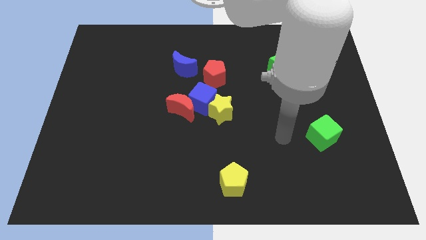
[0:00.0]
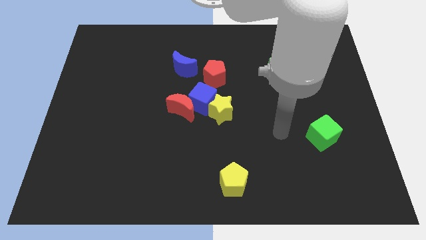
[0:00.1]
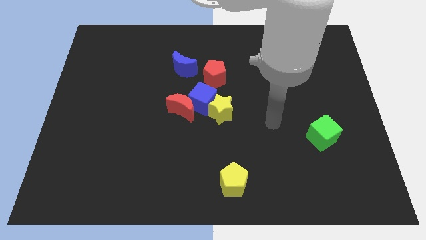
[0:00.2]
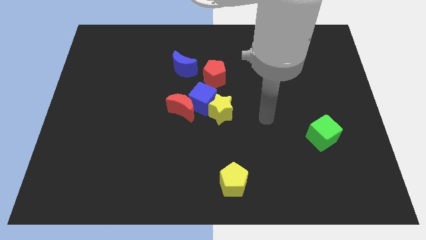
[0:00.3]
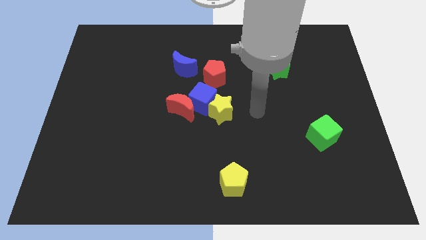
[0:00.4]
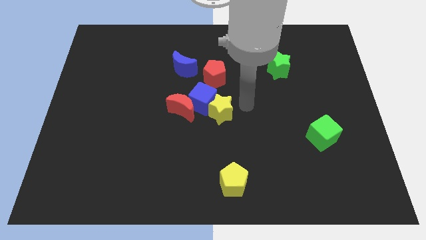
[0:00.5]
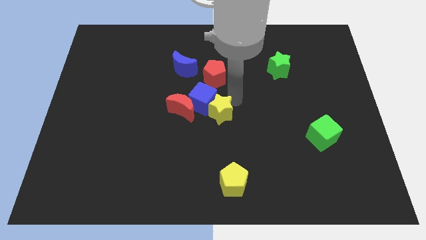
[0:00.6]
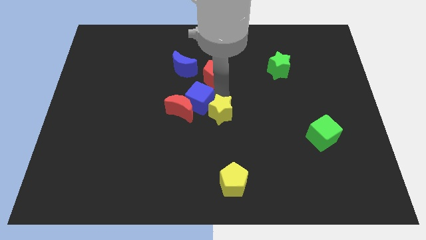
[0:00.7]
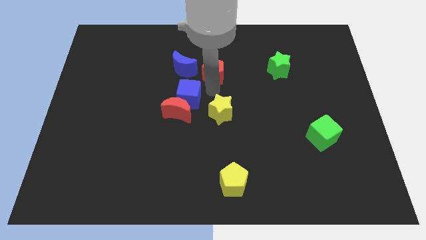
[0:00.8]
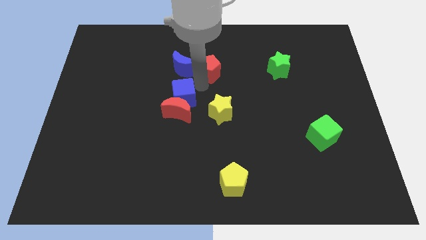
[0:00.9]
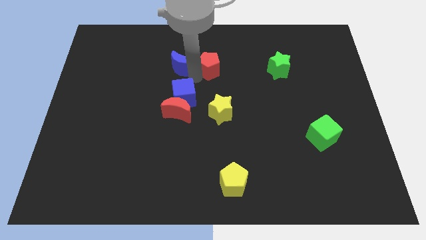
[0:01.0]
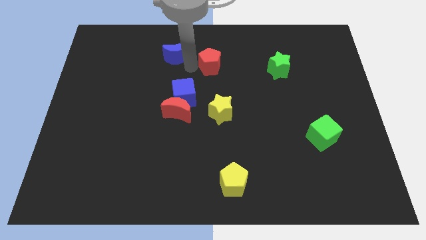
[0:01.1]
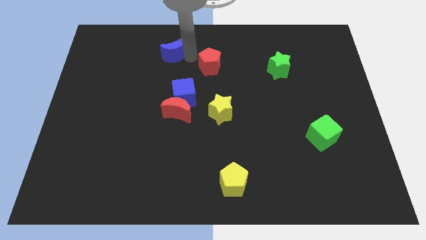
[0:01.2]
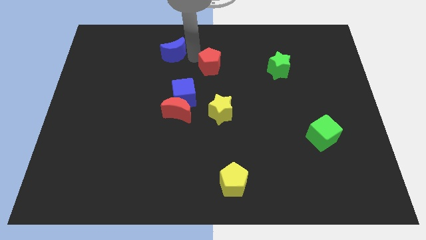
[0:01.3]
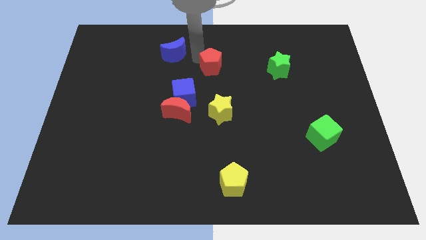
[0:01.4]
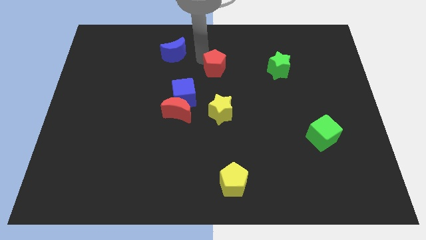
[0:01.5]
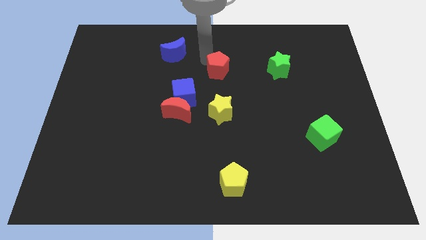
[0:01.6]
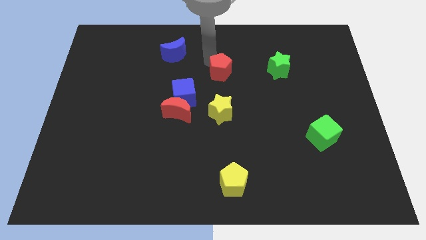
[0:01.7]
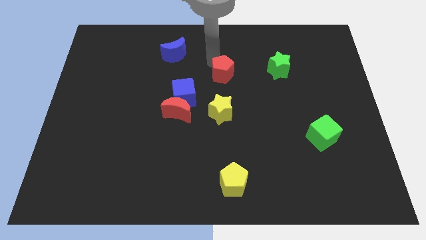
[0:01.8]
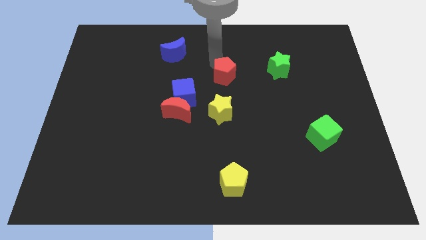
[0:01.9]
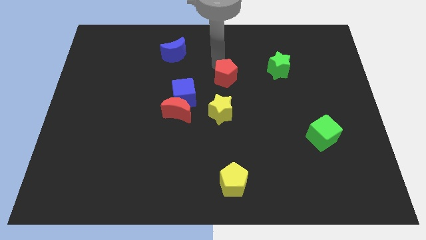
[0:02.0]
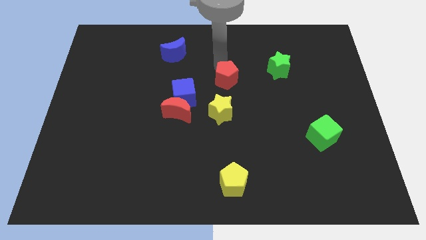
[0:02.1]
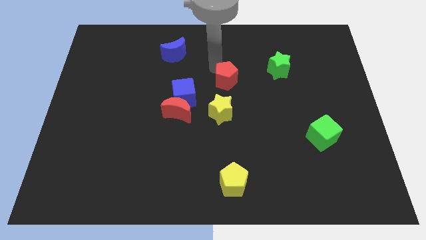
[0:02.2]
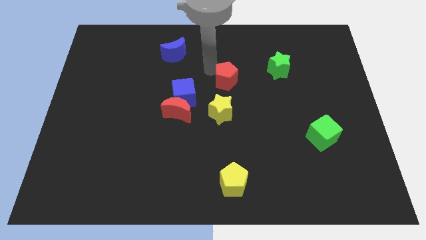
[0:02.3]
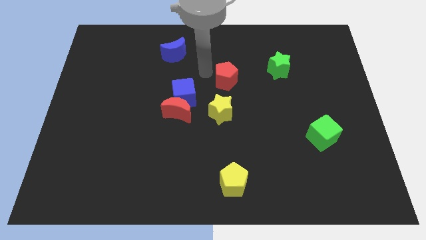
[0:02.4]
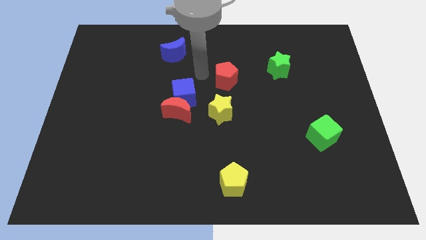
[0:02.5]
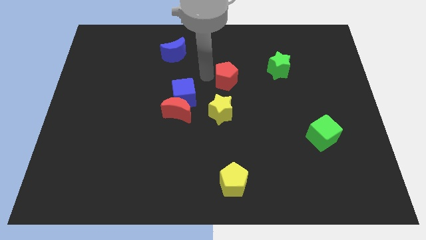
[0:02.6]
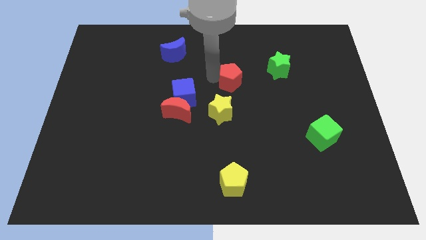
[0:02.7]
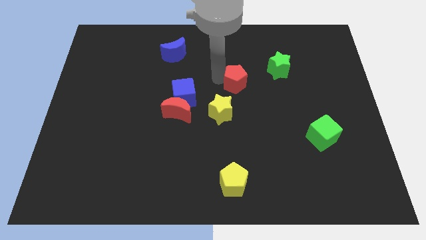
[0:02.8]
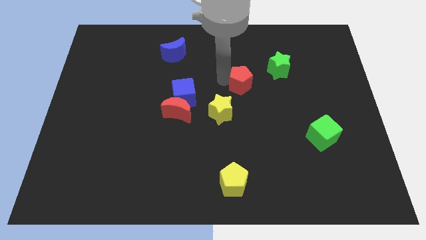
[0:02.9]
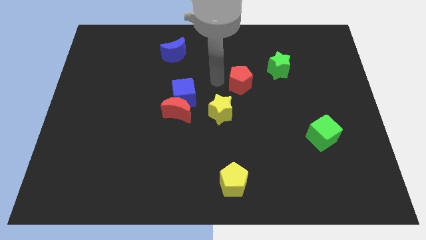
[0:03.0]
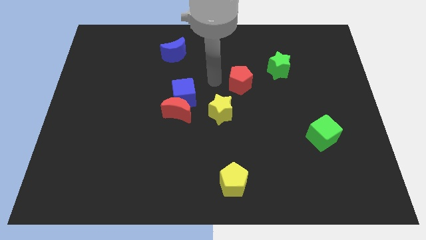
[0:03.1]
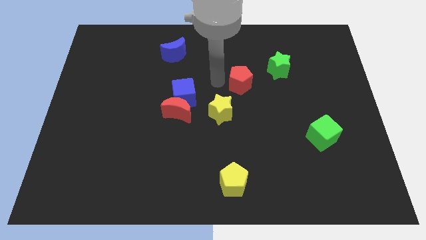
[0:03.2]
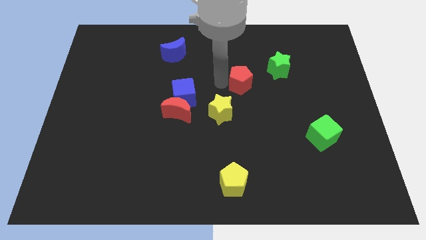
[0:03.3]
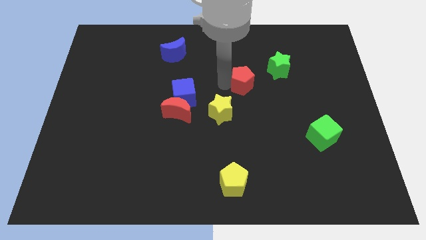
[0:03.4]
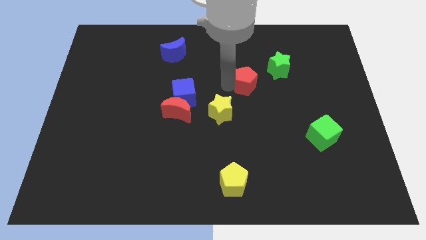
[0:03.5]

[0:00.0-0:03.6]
slightly move the red pentagon to the right

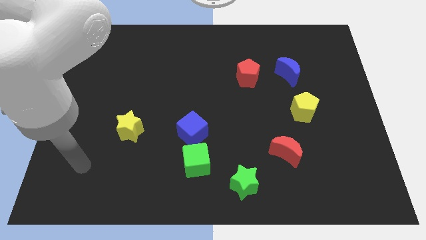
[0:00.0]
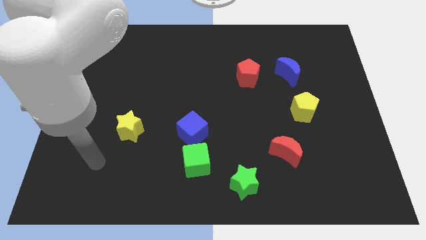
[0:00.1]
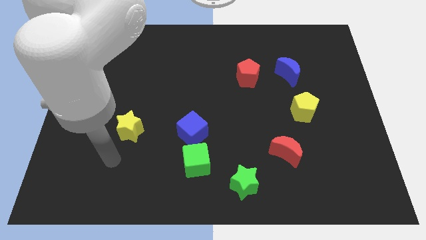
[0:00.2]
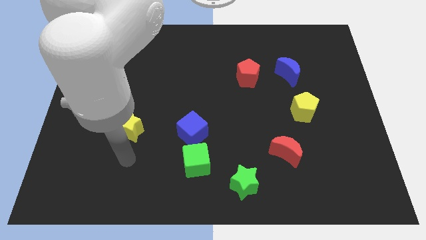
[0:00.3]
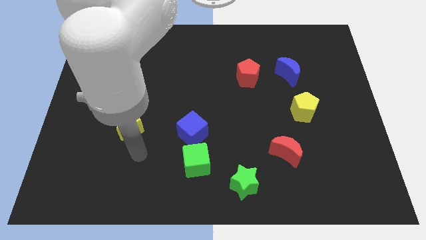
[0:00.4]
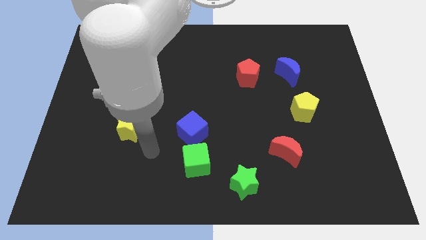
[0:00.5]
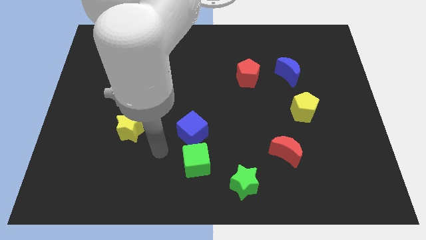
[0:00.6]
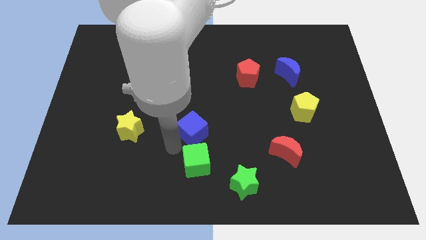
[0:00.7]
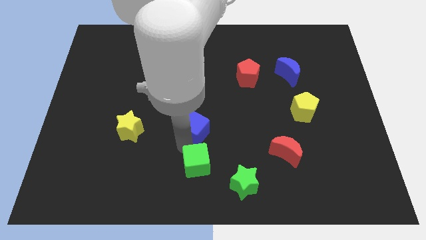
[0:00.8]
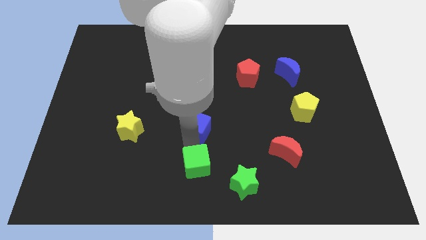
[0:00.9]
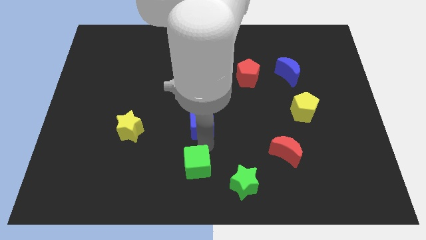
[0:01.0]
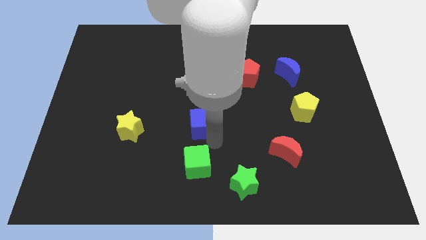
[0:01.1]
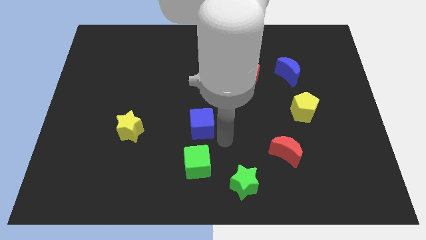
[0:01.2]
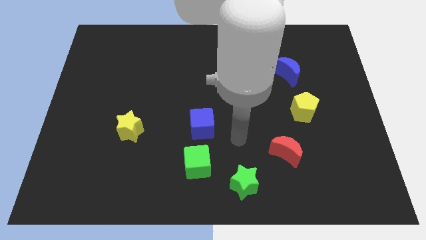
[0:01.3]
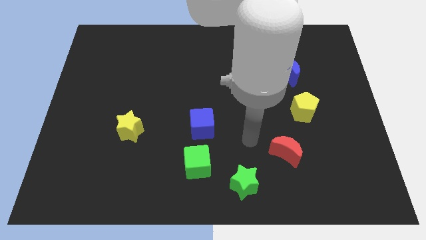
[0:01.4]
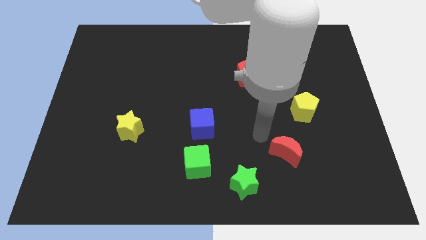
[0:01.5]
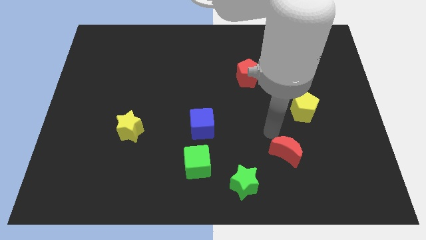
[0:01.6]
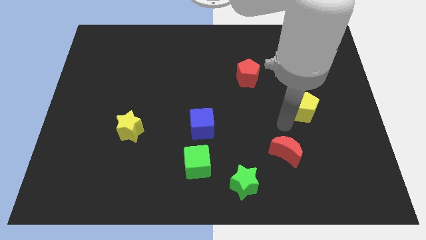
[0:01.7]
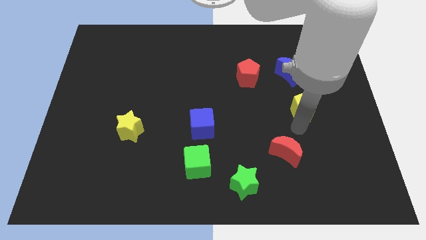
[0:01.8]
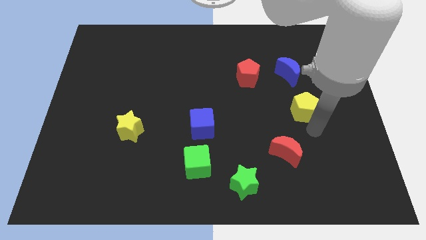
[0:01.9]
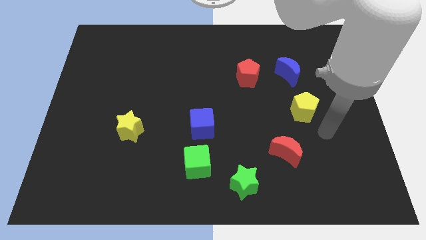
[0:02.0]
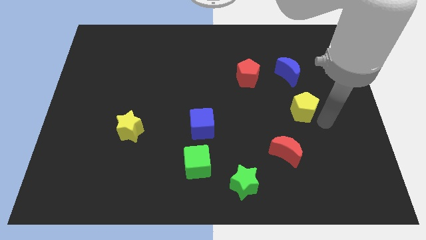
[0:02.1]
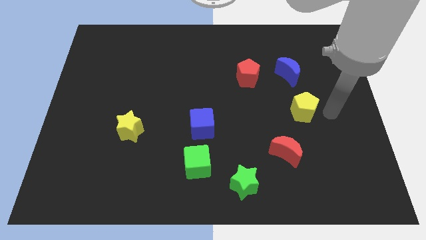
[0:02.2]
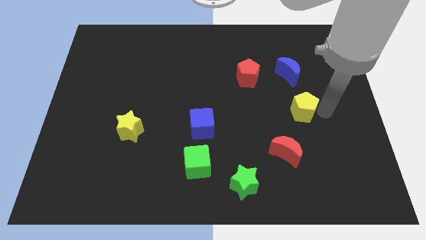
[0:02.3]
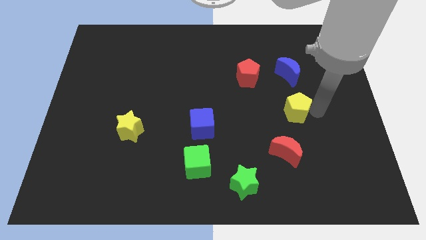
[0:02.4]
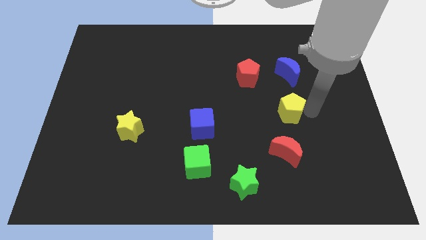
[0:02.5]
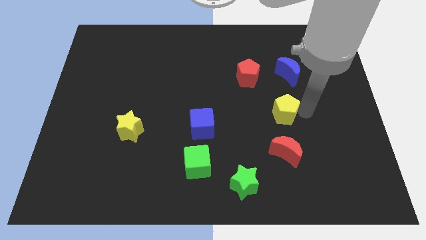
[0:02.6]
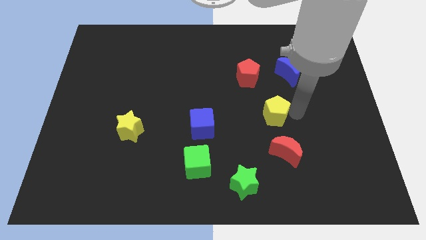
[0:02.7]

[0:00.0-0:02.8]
push the yellow pentagon slightly left

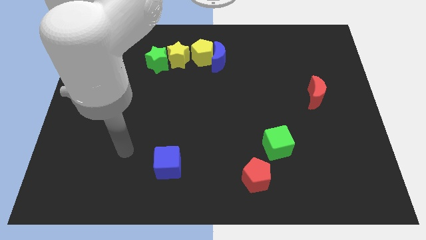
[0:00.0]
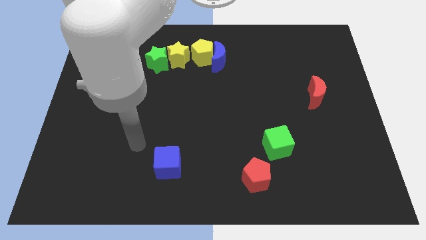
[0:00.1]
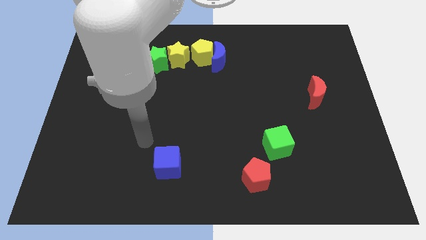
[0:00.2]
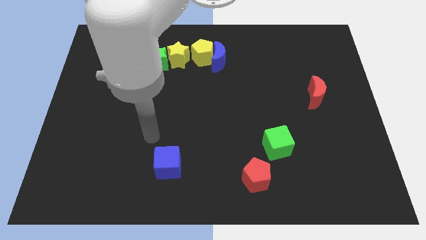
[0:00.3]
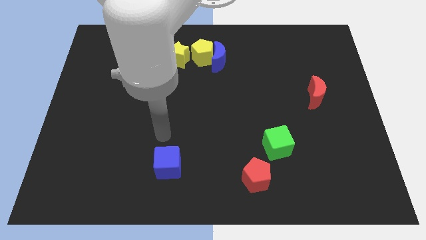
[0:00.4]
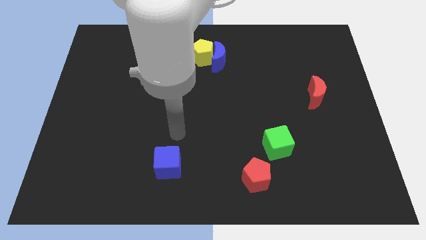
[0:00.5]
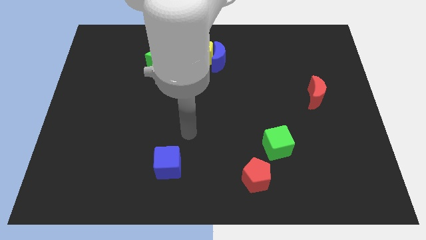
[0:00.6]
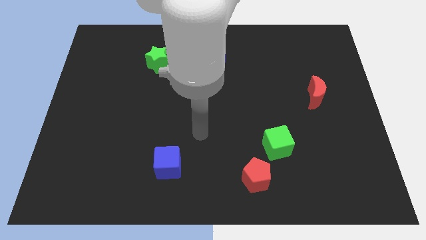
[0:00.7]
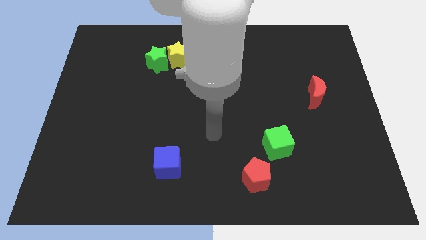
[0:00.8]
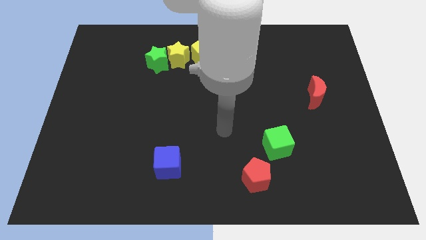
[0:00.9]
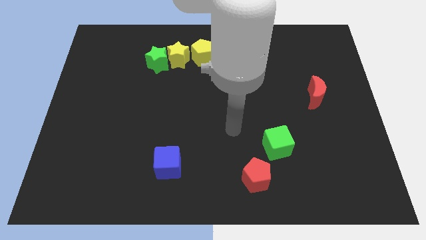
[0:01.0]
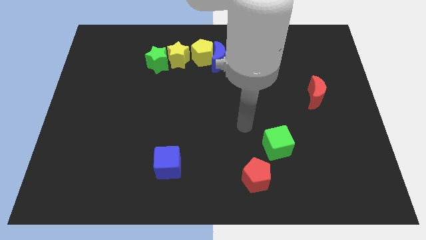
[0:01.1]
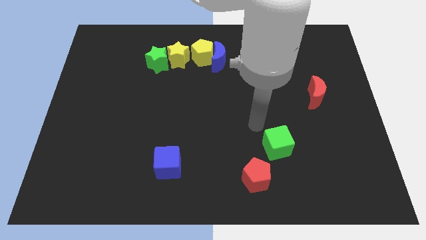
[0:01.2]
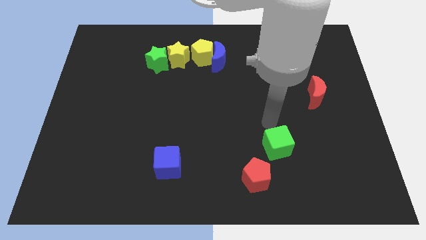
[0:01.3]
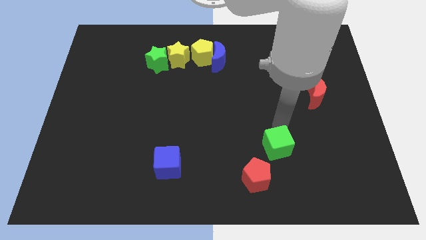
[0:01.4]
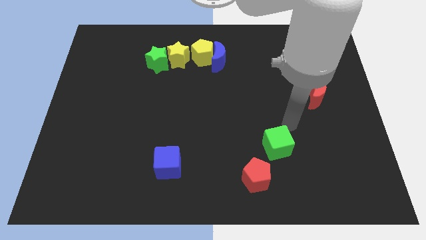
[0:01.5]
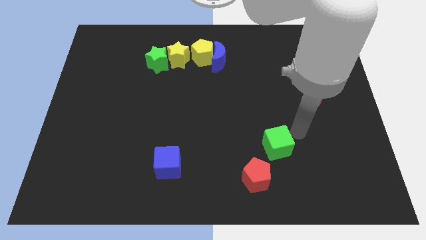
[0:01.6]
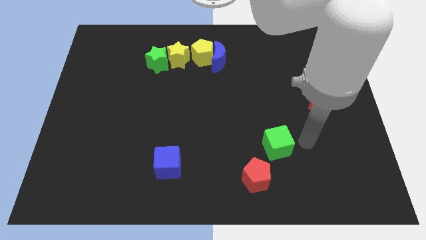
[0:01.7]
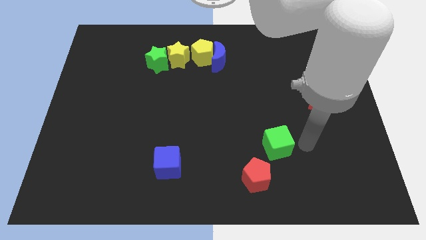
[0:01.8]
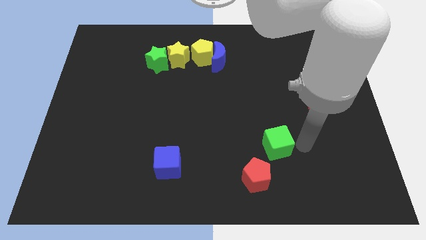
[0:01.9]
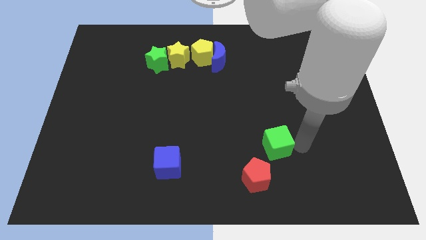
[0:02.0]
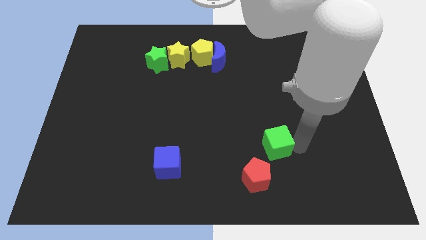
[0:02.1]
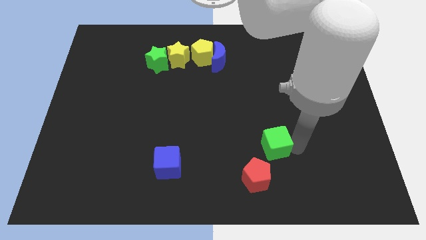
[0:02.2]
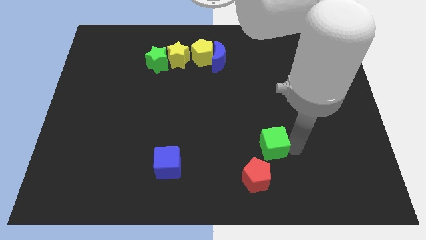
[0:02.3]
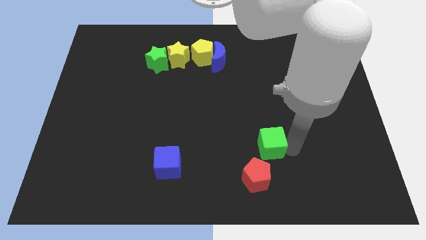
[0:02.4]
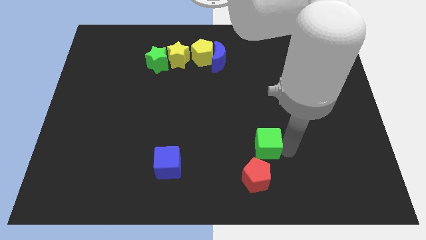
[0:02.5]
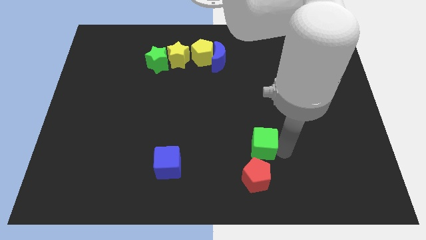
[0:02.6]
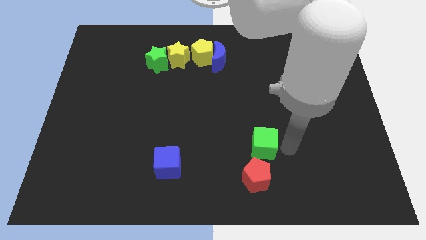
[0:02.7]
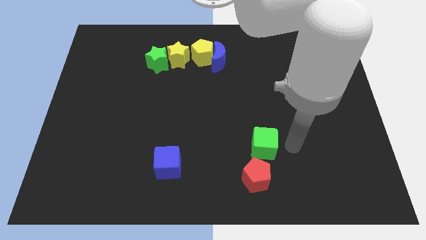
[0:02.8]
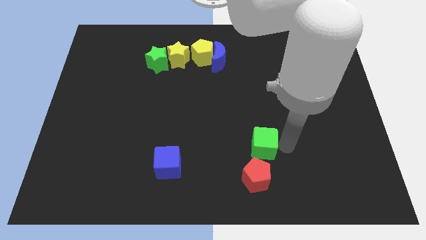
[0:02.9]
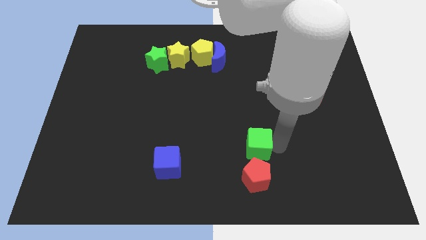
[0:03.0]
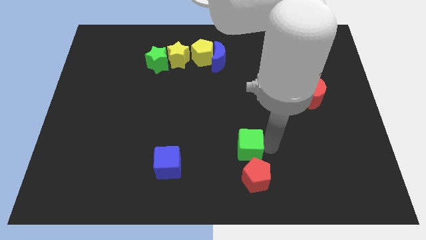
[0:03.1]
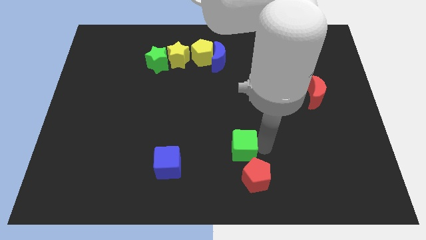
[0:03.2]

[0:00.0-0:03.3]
slightly move the green cube left
